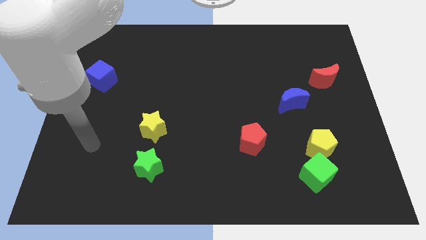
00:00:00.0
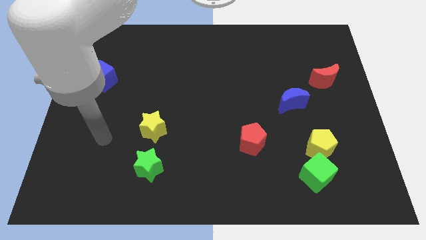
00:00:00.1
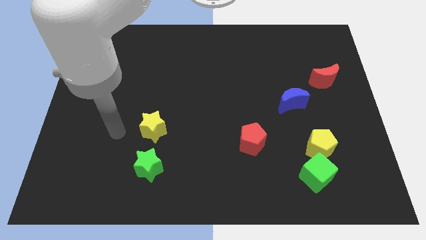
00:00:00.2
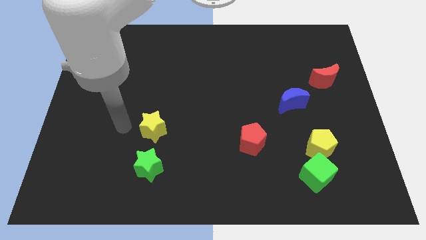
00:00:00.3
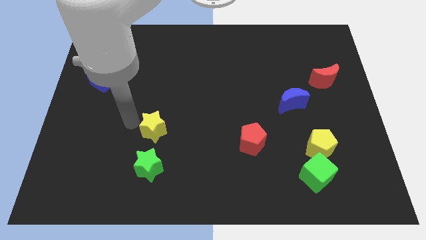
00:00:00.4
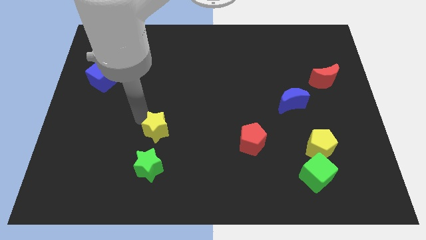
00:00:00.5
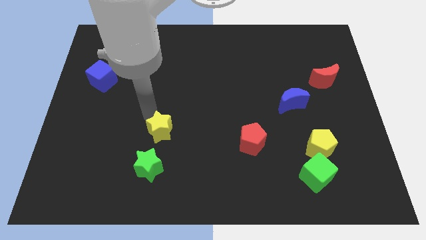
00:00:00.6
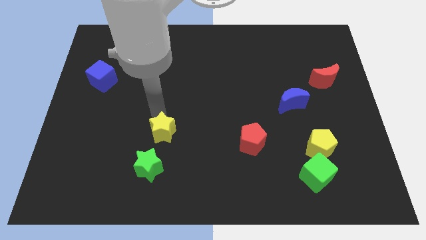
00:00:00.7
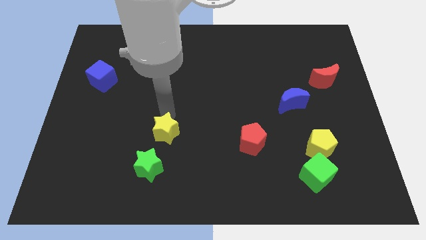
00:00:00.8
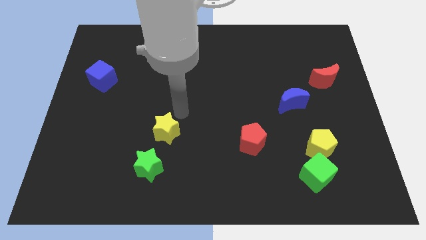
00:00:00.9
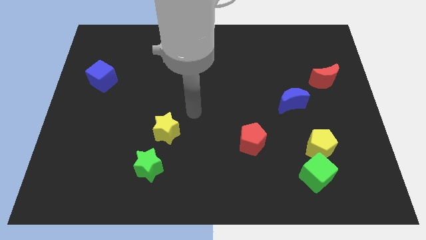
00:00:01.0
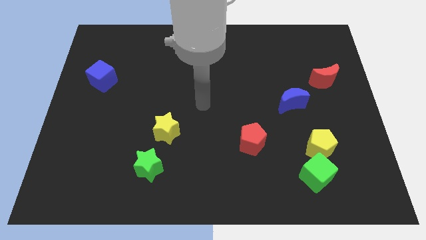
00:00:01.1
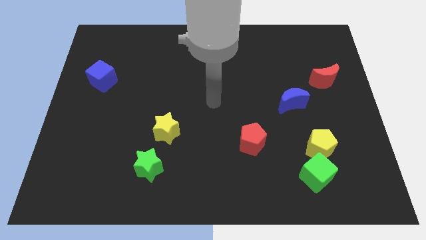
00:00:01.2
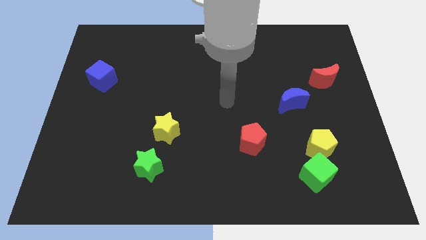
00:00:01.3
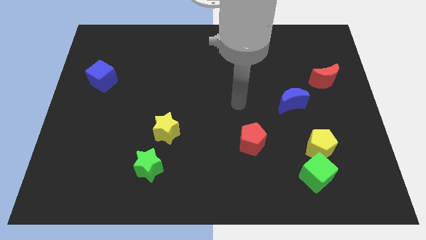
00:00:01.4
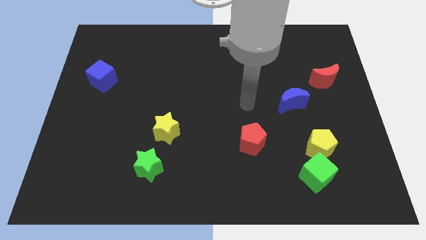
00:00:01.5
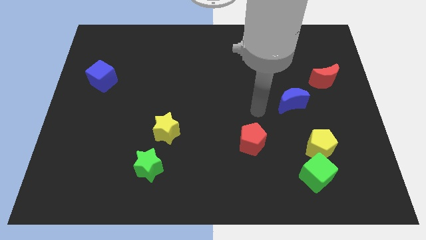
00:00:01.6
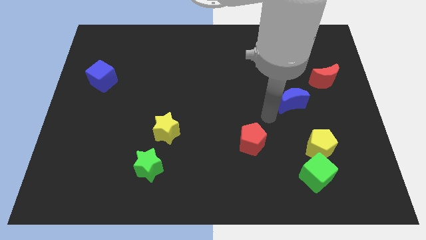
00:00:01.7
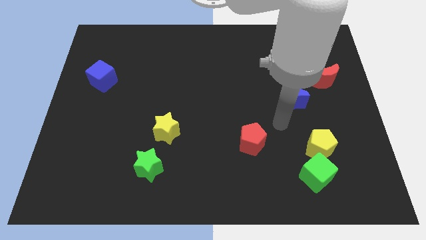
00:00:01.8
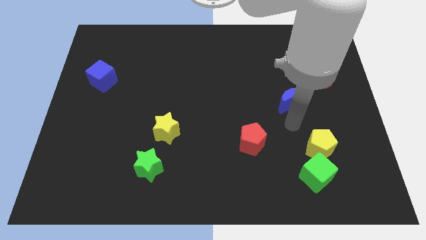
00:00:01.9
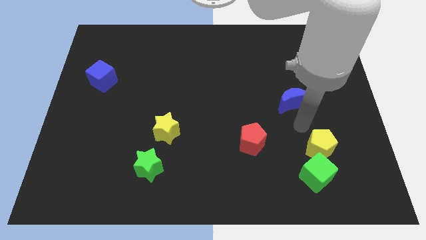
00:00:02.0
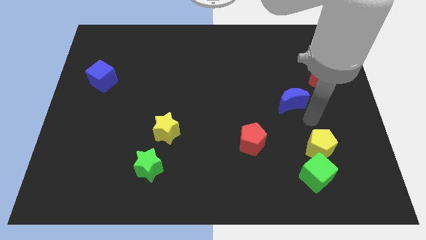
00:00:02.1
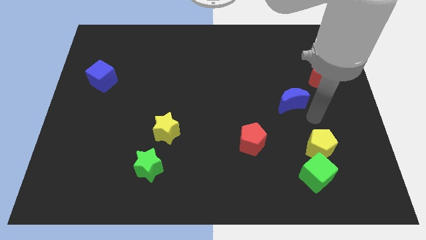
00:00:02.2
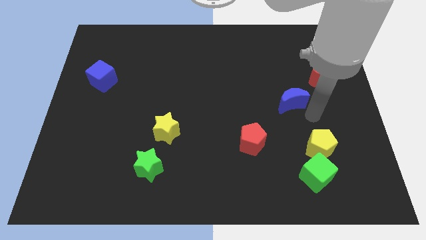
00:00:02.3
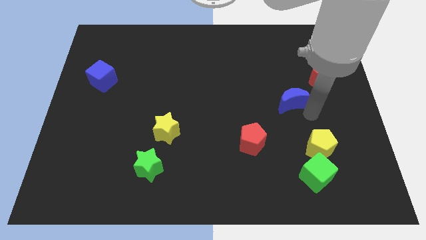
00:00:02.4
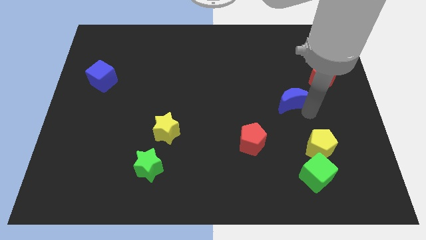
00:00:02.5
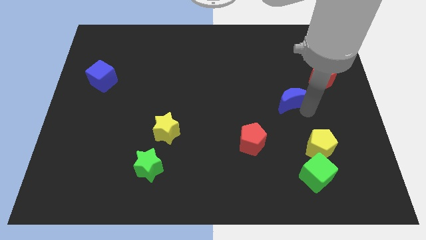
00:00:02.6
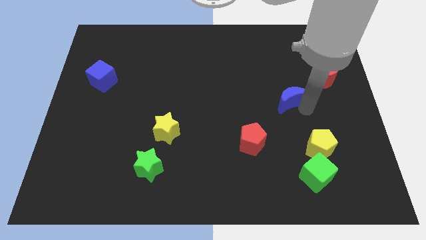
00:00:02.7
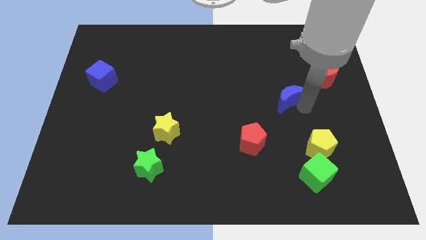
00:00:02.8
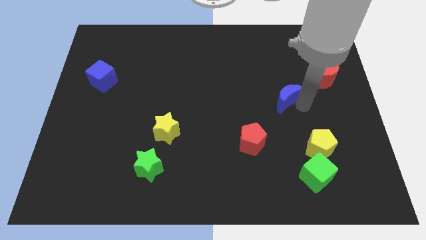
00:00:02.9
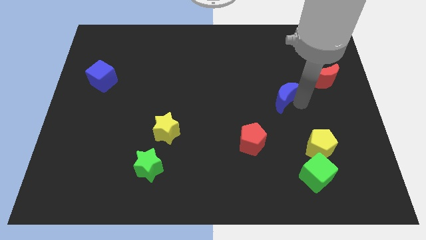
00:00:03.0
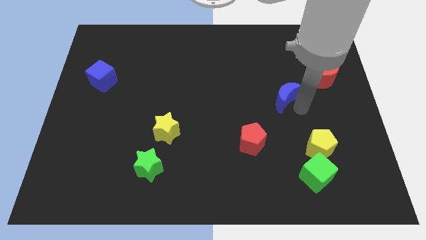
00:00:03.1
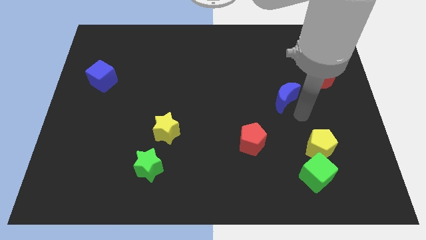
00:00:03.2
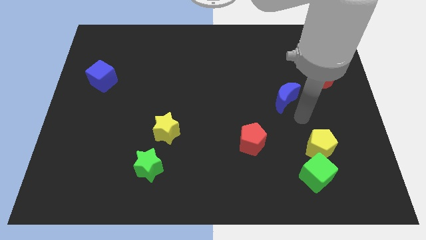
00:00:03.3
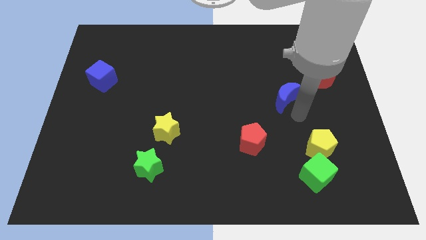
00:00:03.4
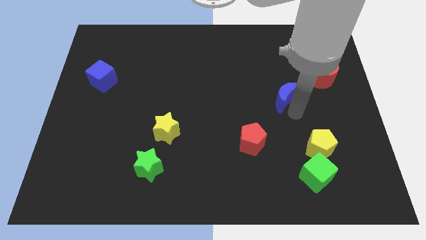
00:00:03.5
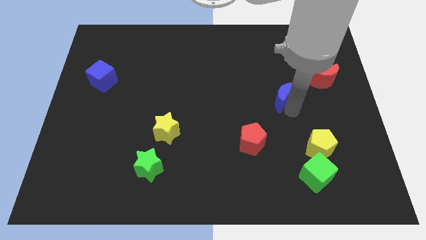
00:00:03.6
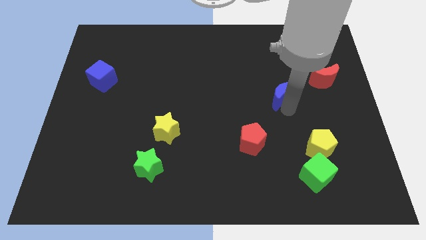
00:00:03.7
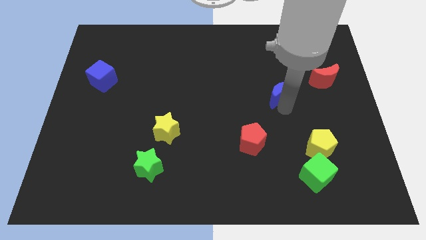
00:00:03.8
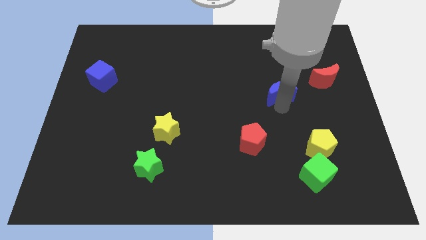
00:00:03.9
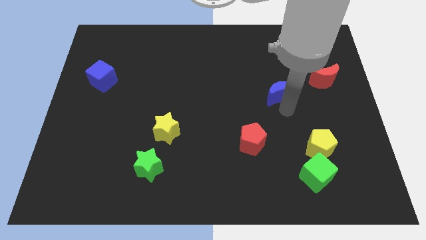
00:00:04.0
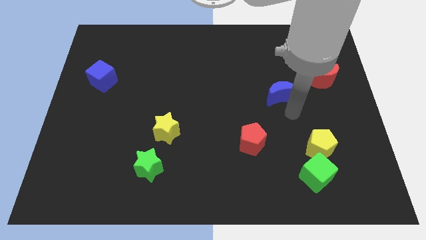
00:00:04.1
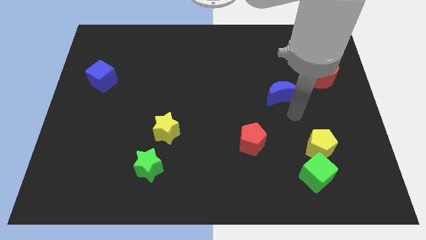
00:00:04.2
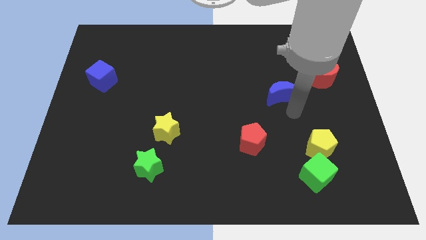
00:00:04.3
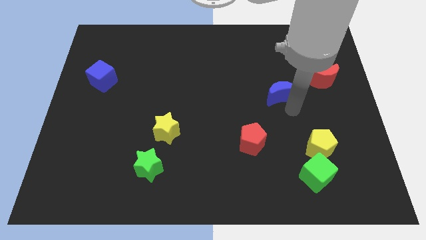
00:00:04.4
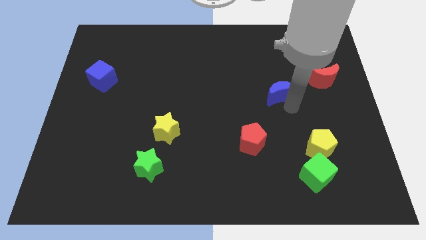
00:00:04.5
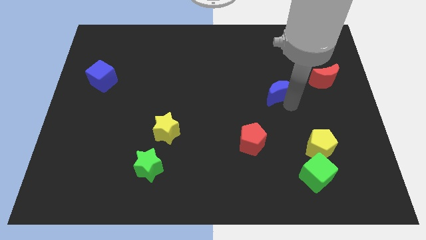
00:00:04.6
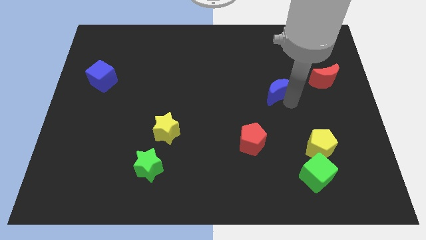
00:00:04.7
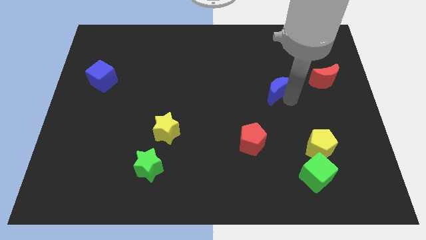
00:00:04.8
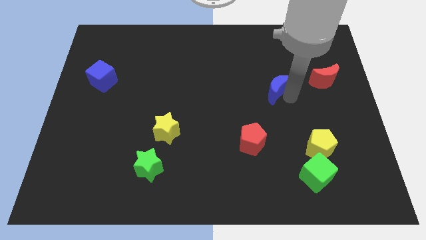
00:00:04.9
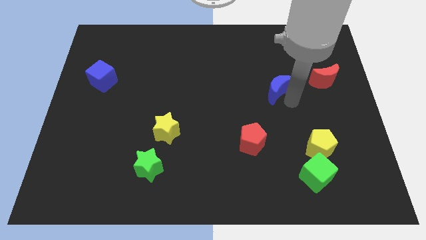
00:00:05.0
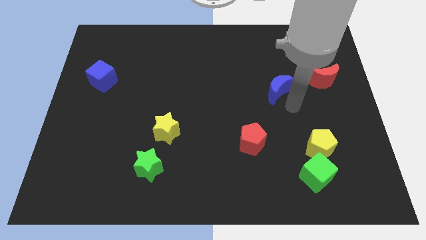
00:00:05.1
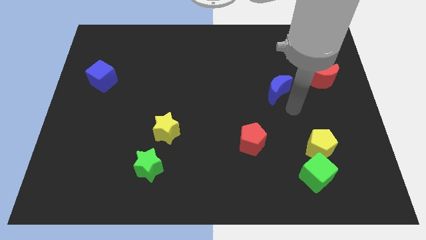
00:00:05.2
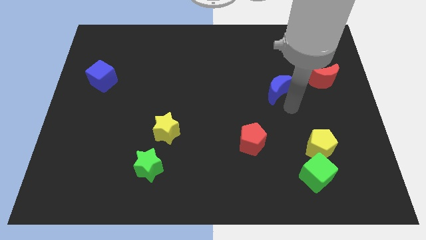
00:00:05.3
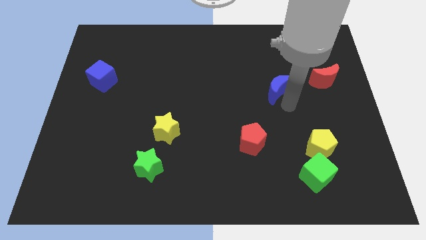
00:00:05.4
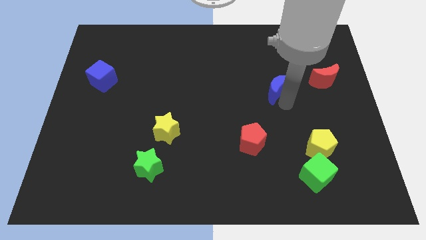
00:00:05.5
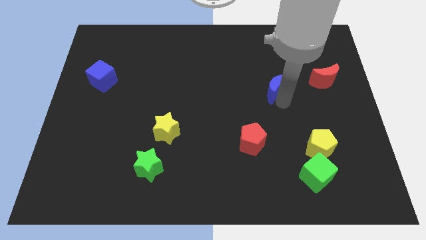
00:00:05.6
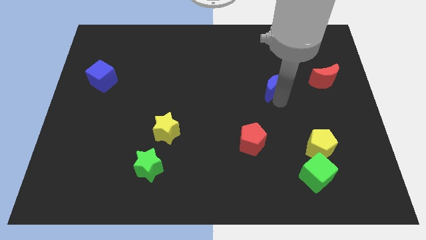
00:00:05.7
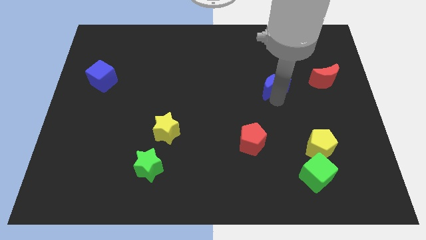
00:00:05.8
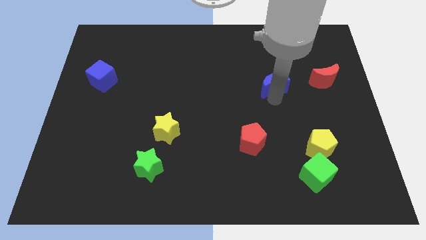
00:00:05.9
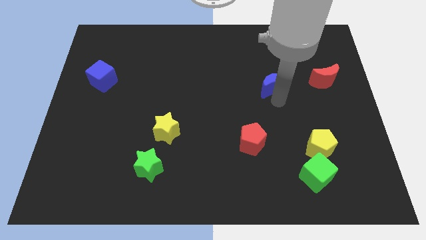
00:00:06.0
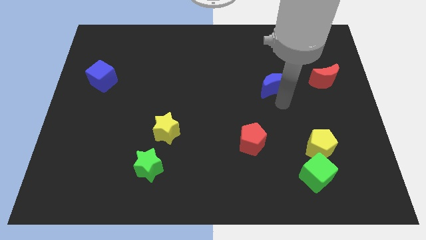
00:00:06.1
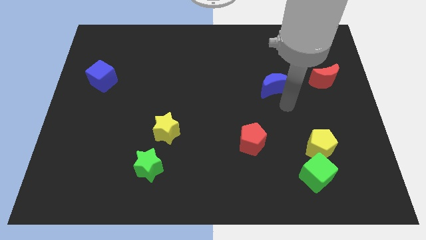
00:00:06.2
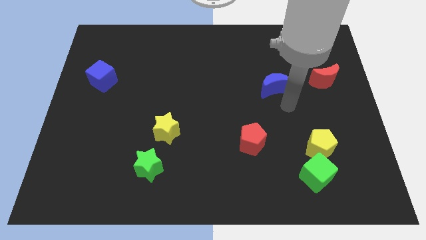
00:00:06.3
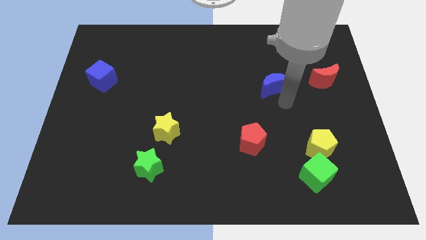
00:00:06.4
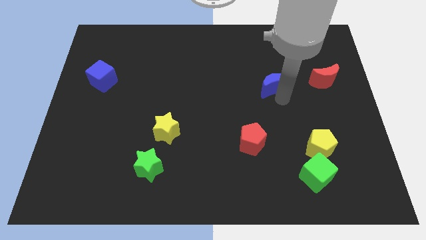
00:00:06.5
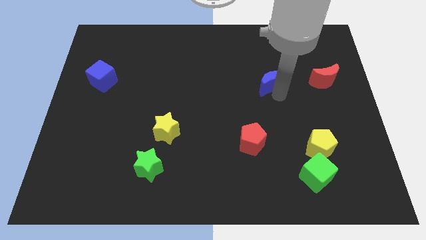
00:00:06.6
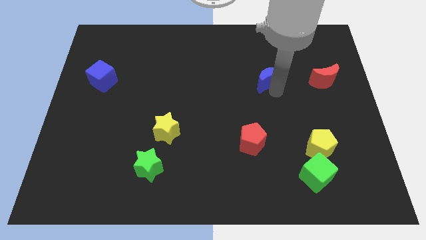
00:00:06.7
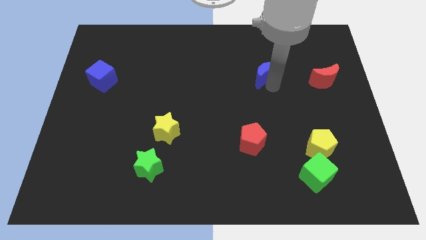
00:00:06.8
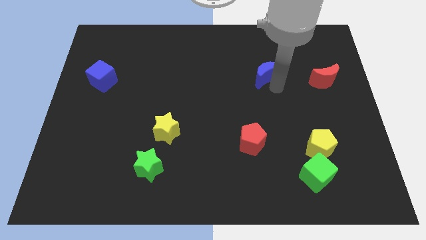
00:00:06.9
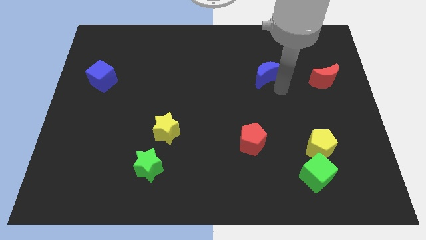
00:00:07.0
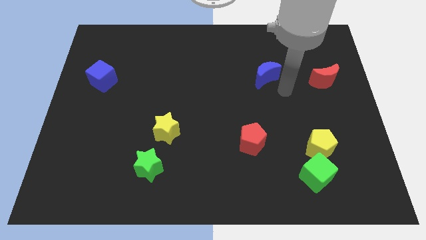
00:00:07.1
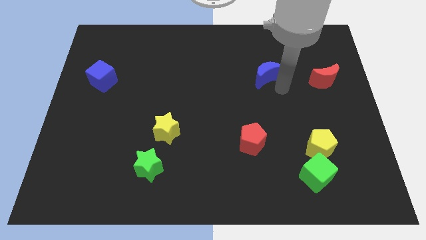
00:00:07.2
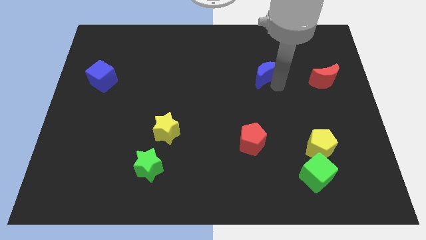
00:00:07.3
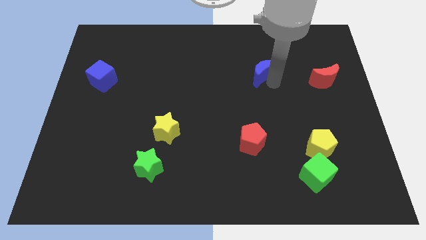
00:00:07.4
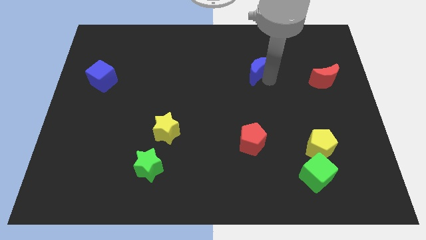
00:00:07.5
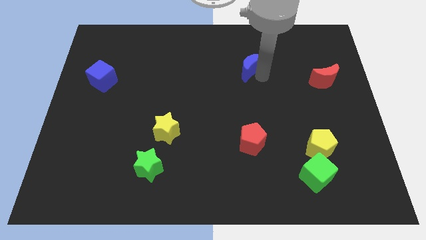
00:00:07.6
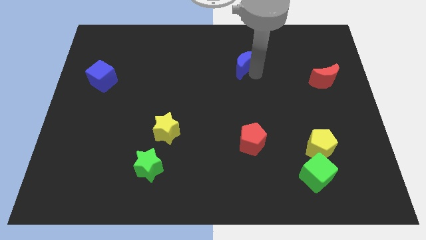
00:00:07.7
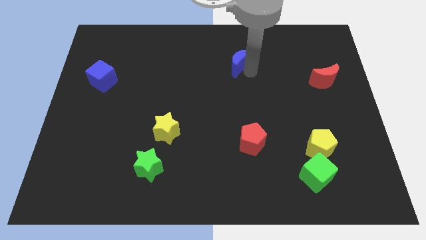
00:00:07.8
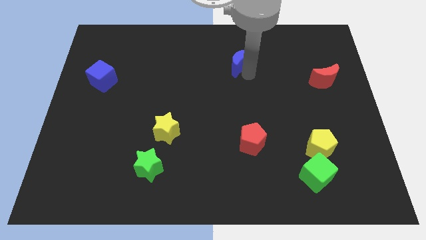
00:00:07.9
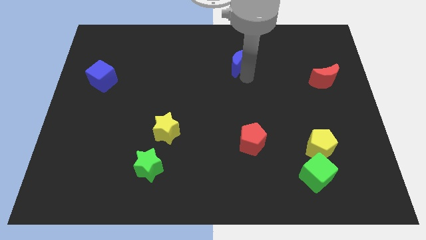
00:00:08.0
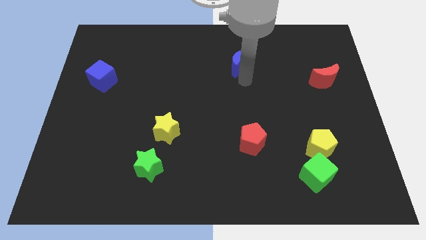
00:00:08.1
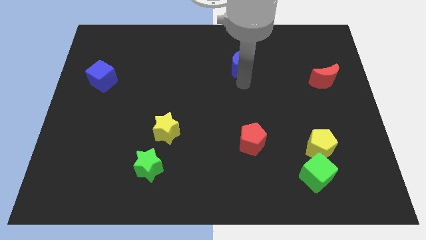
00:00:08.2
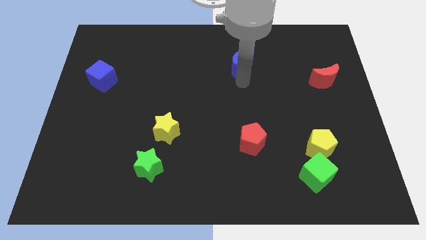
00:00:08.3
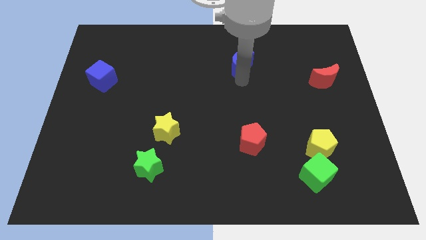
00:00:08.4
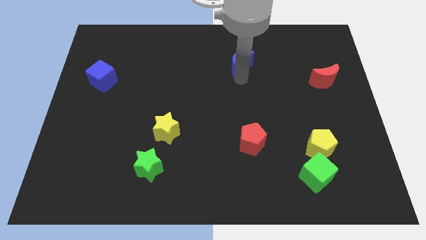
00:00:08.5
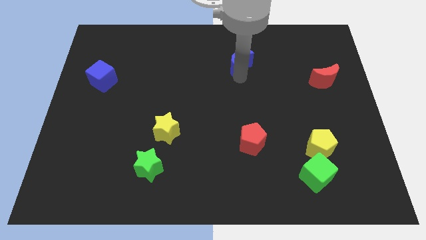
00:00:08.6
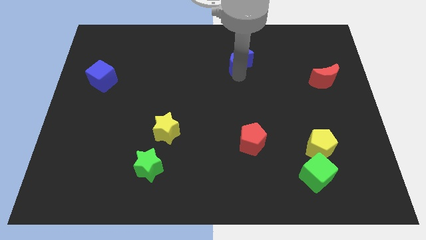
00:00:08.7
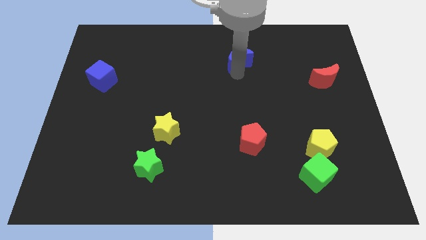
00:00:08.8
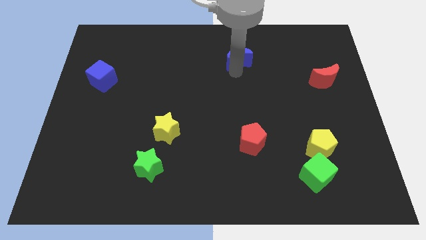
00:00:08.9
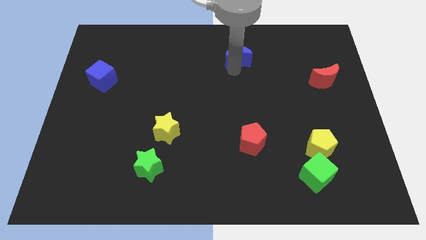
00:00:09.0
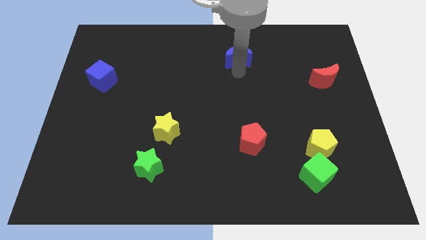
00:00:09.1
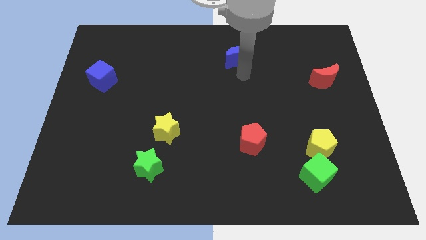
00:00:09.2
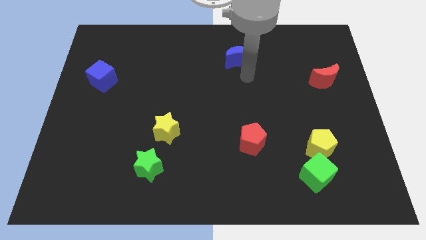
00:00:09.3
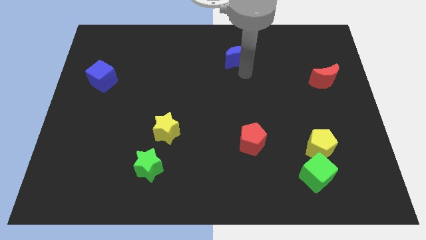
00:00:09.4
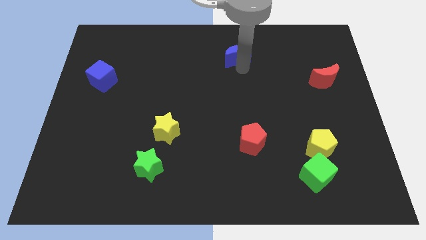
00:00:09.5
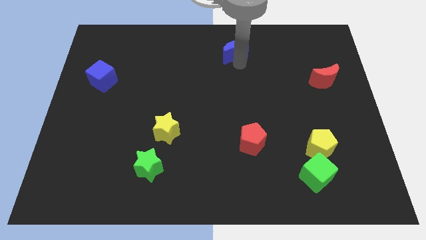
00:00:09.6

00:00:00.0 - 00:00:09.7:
move the blue moon to the top side
